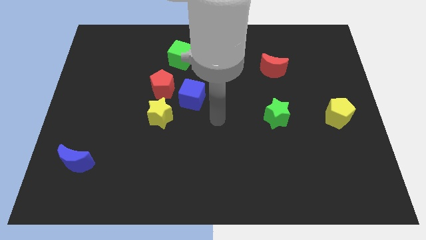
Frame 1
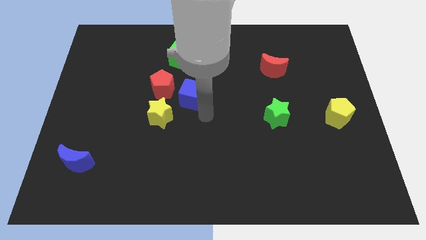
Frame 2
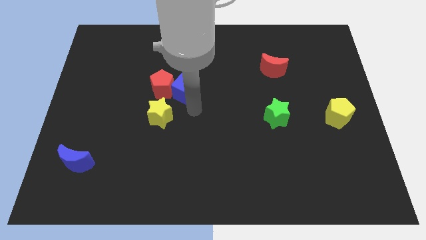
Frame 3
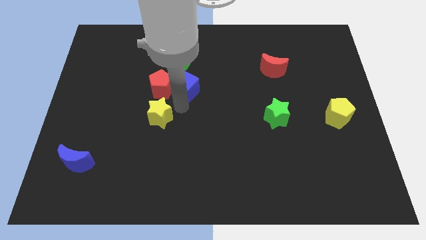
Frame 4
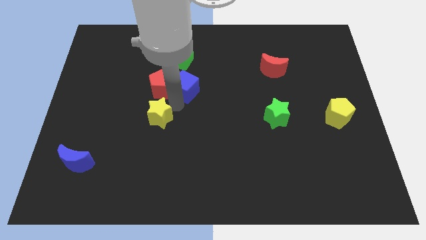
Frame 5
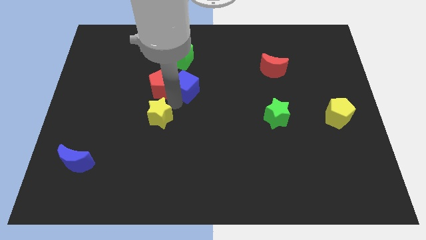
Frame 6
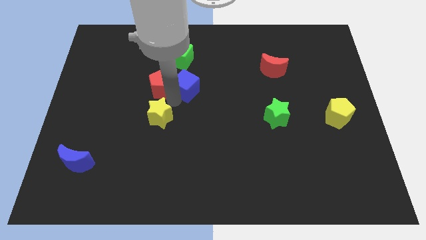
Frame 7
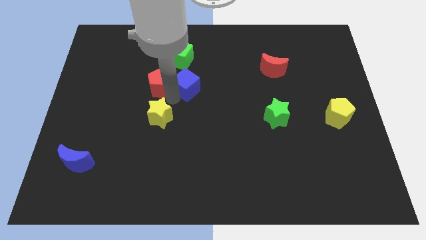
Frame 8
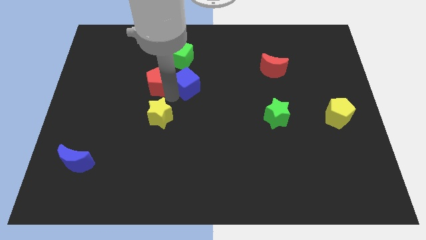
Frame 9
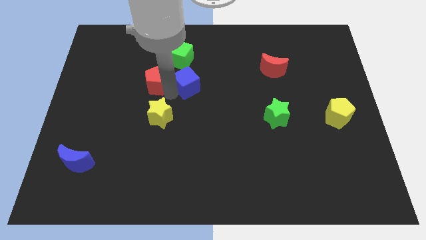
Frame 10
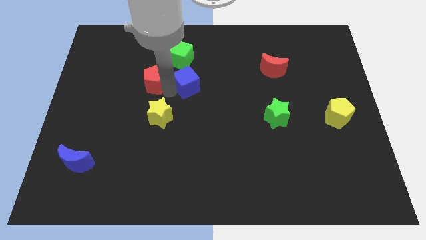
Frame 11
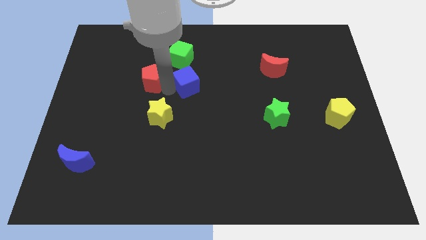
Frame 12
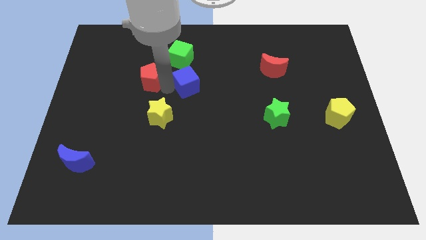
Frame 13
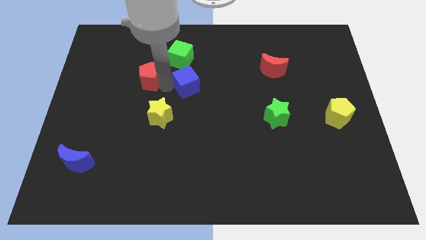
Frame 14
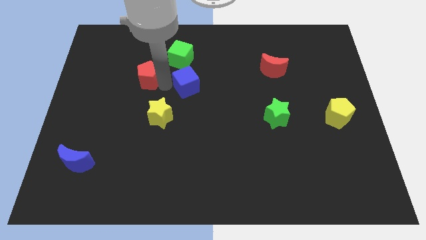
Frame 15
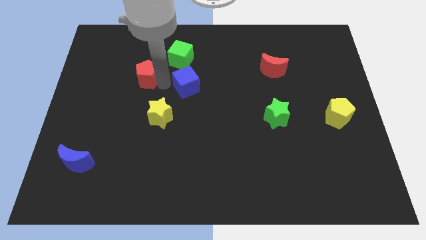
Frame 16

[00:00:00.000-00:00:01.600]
pull the red pentagon apart from the blue cube and yellow star

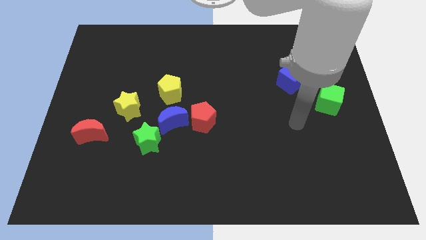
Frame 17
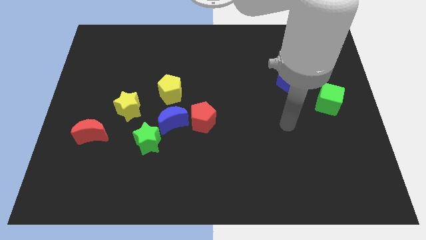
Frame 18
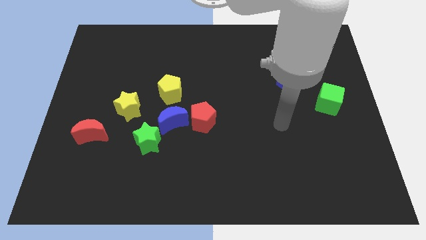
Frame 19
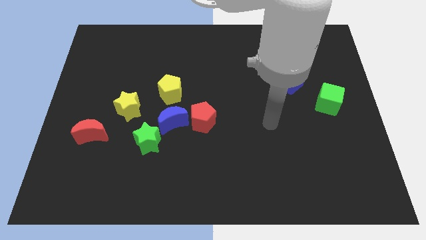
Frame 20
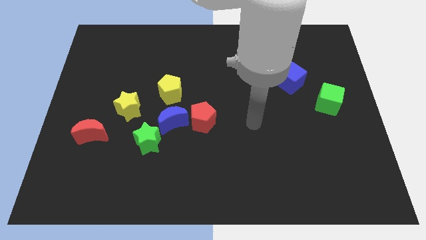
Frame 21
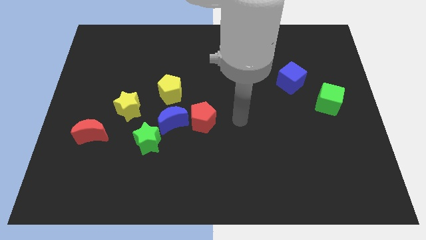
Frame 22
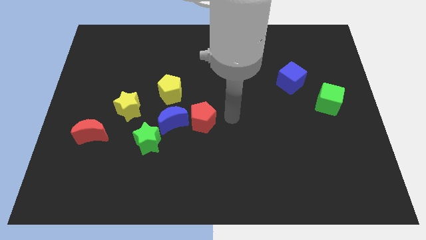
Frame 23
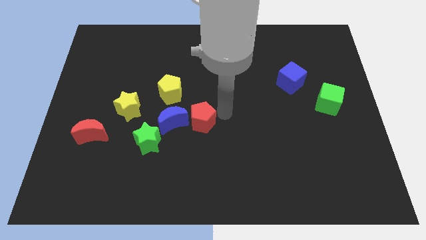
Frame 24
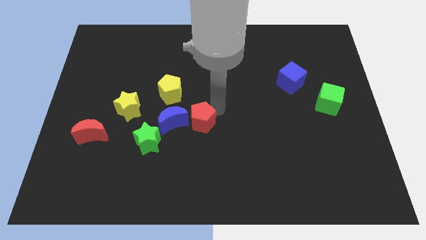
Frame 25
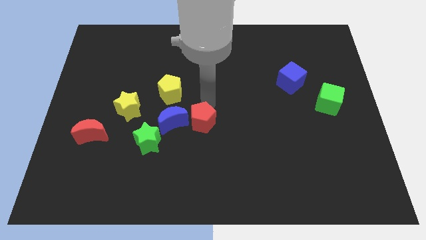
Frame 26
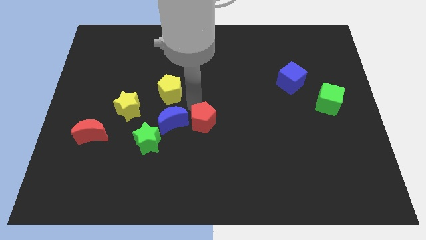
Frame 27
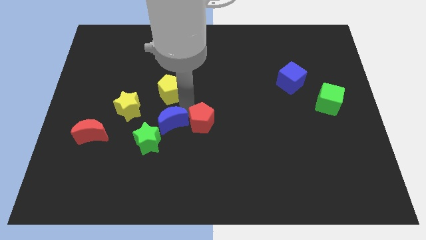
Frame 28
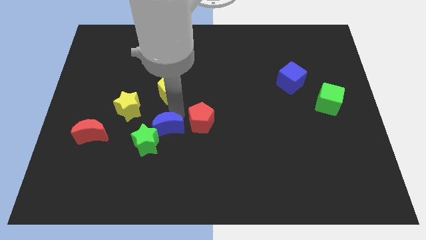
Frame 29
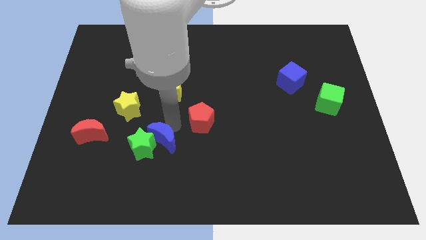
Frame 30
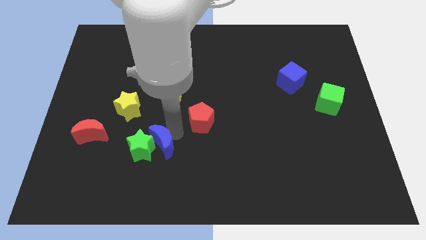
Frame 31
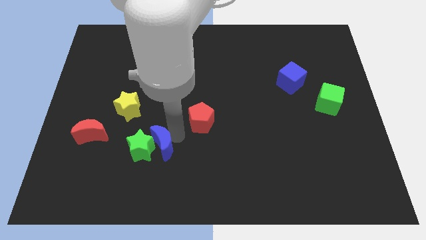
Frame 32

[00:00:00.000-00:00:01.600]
separate the red pentagon from the blue moon

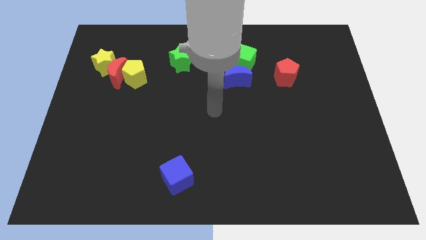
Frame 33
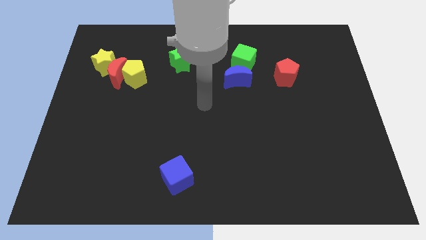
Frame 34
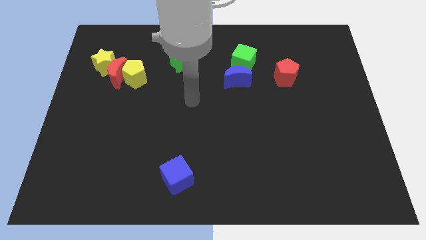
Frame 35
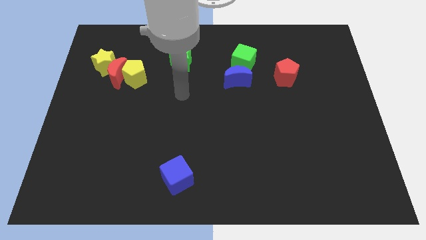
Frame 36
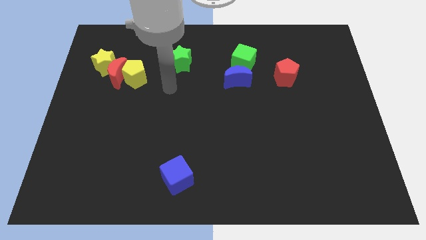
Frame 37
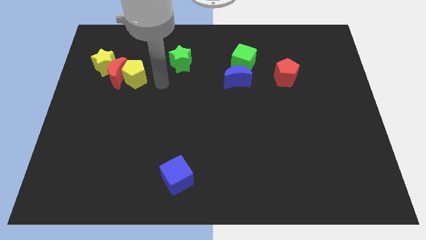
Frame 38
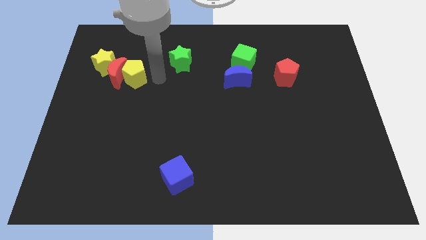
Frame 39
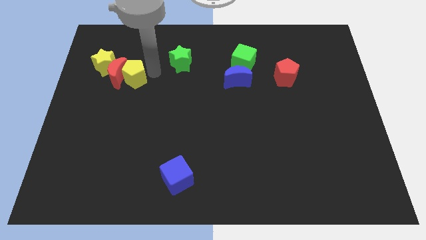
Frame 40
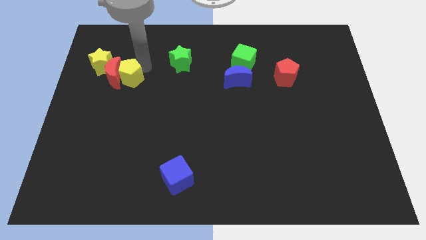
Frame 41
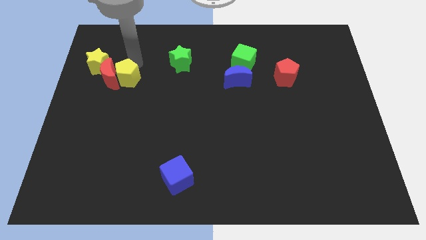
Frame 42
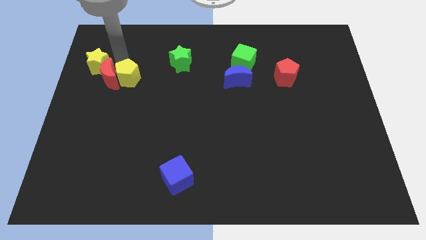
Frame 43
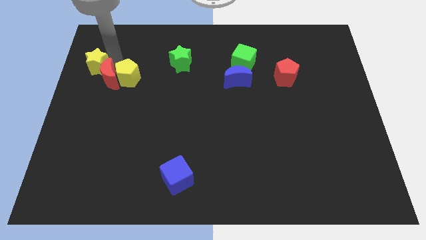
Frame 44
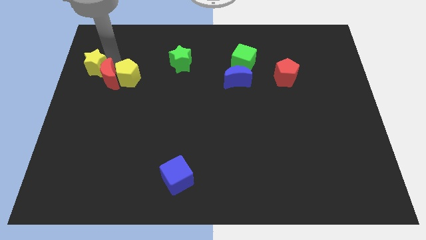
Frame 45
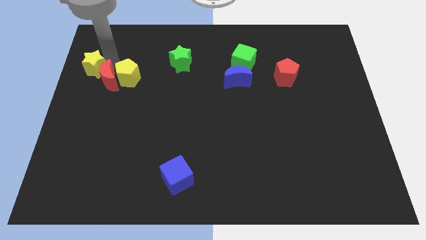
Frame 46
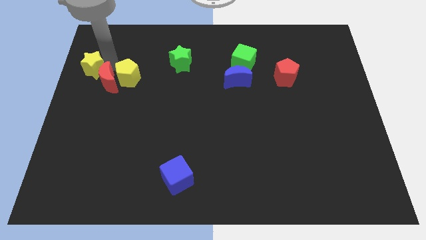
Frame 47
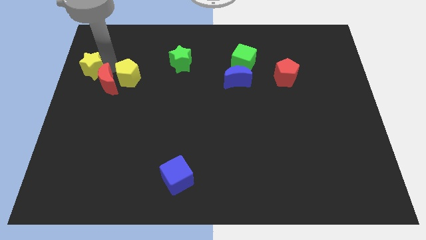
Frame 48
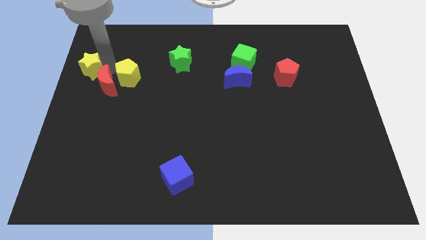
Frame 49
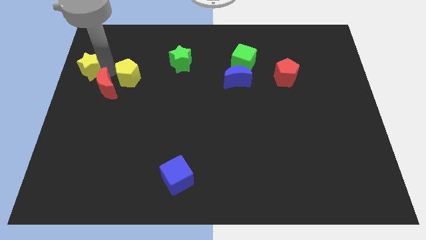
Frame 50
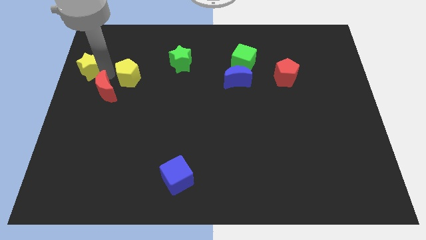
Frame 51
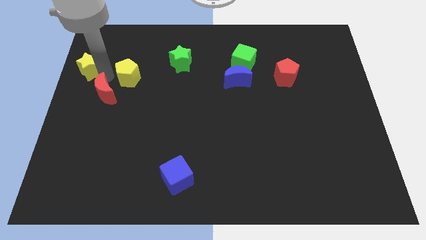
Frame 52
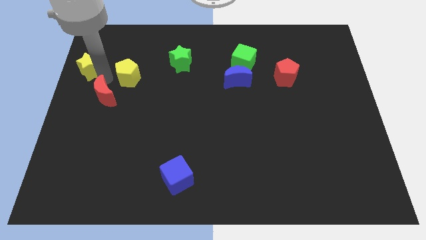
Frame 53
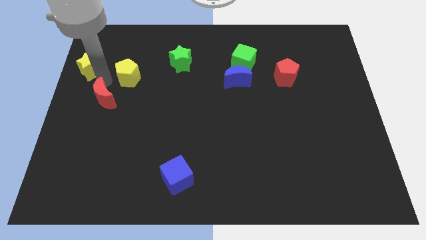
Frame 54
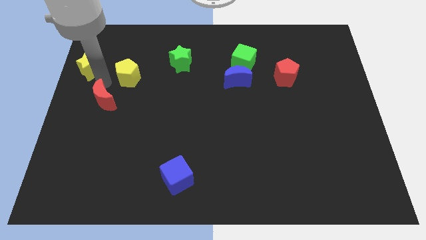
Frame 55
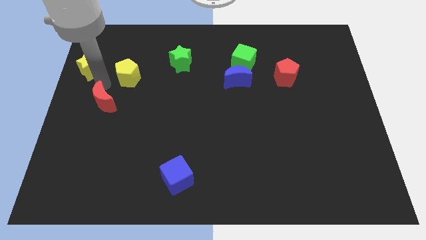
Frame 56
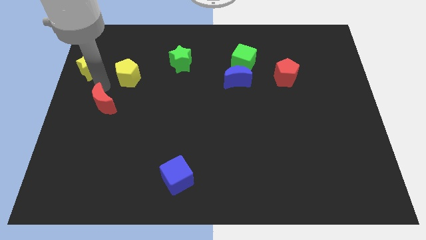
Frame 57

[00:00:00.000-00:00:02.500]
pull the red moon apart from the yellow pentagon and yellow star

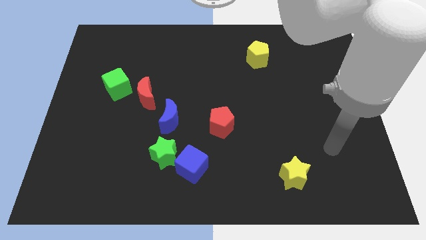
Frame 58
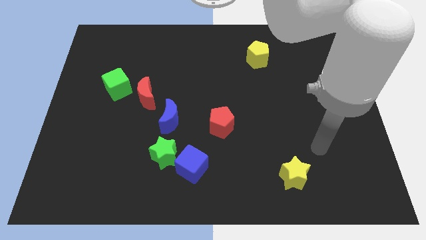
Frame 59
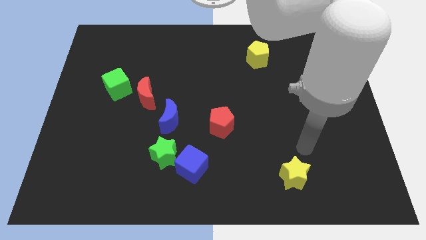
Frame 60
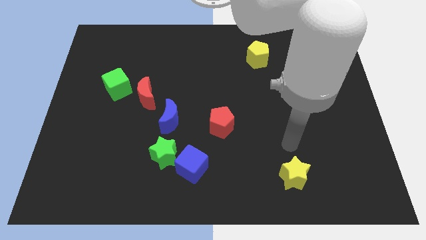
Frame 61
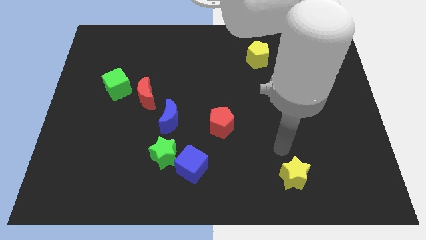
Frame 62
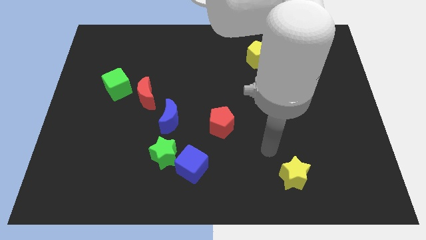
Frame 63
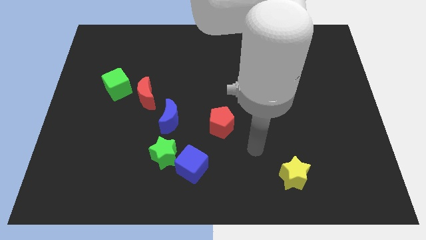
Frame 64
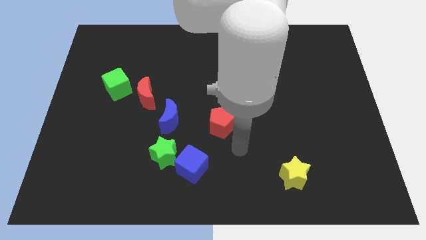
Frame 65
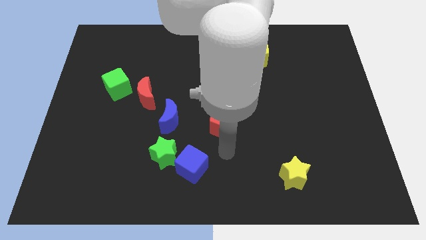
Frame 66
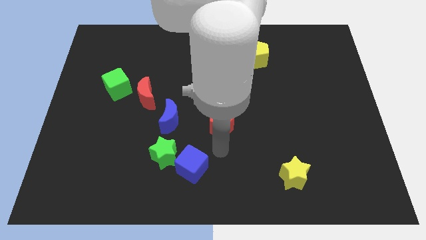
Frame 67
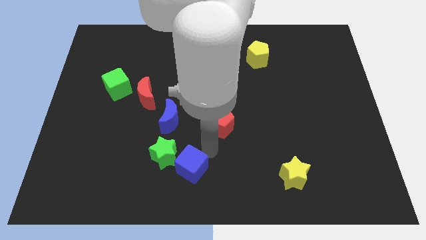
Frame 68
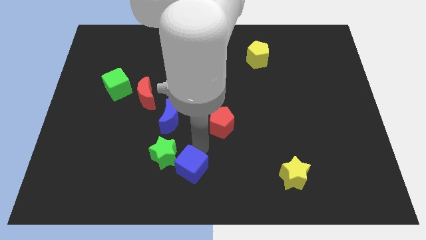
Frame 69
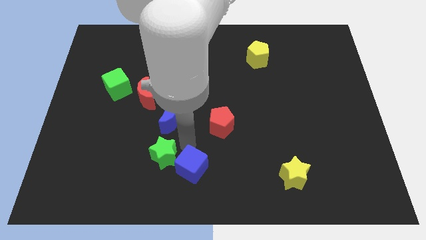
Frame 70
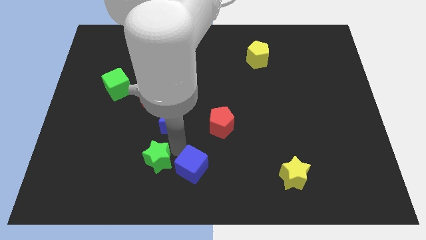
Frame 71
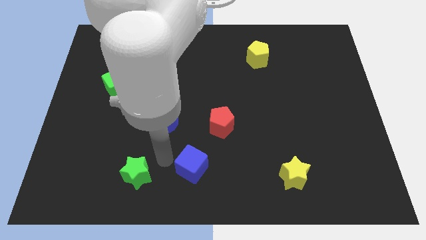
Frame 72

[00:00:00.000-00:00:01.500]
move the blue cube away from the green star

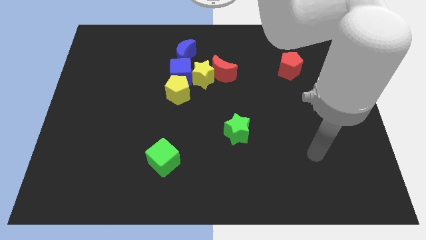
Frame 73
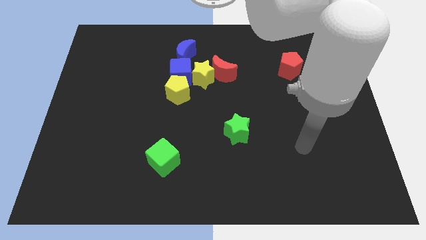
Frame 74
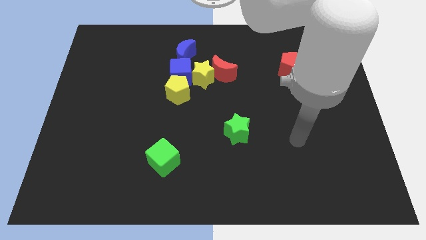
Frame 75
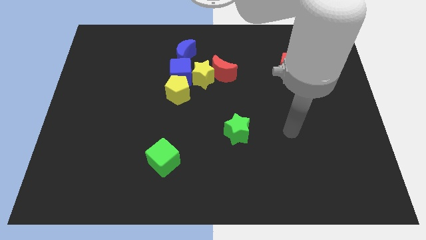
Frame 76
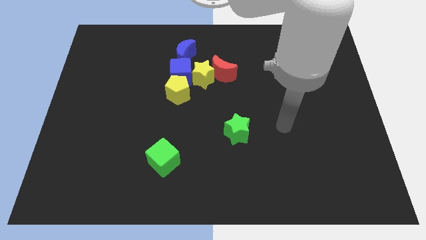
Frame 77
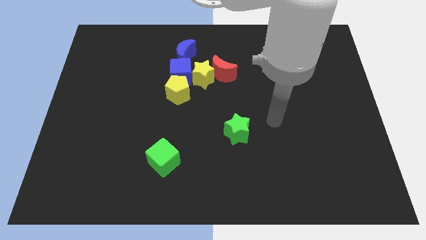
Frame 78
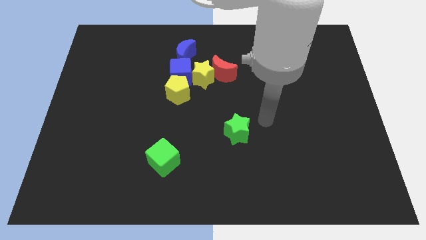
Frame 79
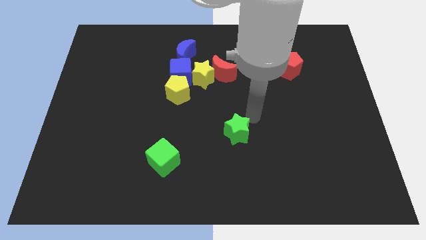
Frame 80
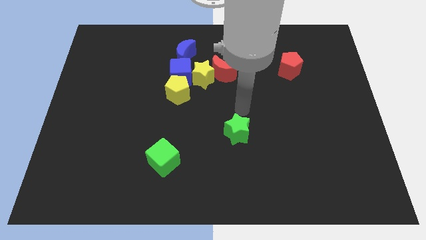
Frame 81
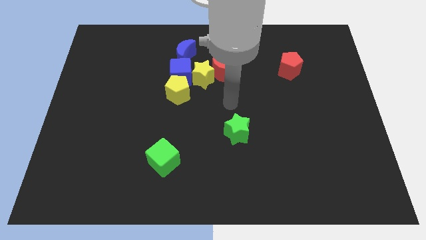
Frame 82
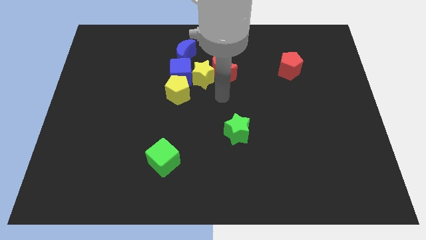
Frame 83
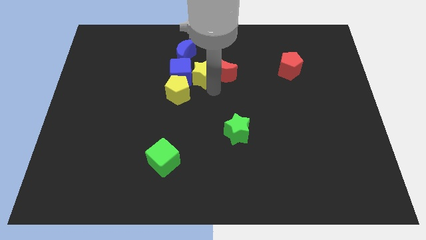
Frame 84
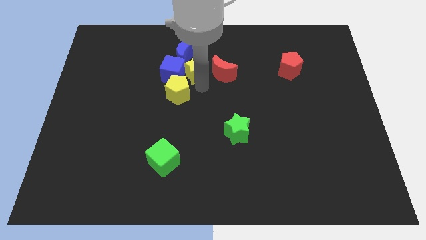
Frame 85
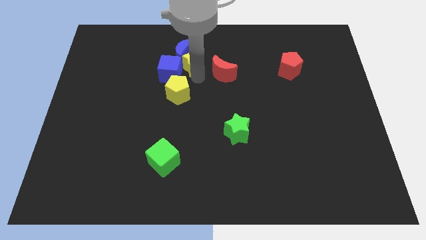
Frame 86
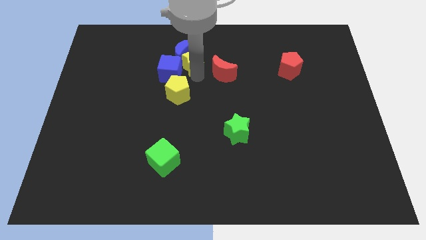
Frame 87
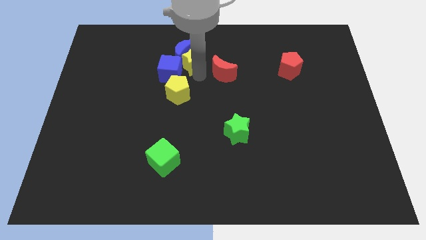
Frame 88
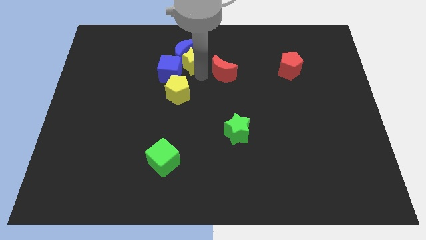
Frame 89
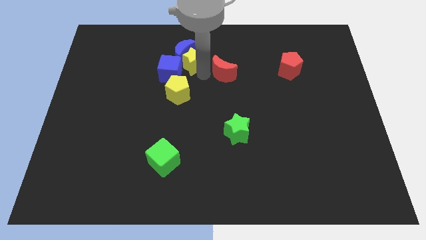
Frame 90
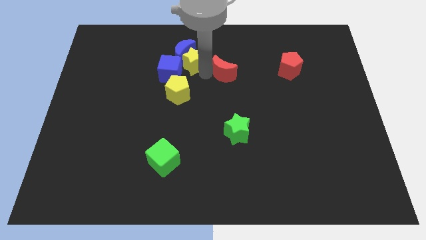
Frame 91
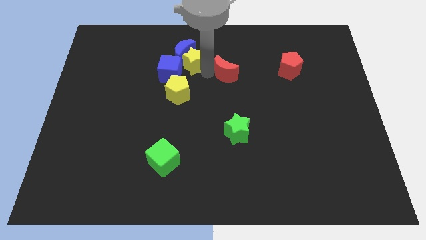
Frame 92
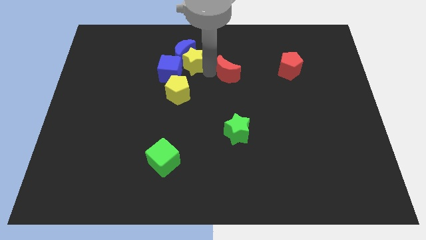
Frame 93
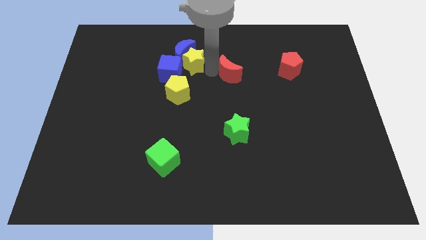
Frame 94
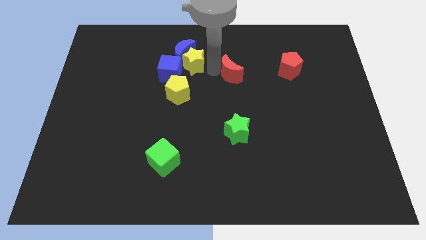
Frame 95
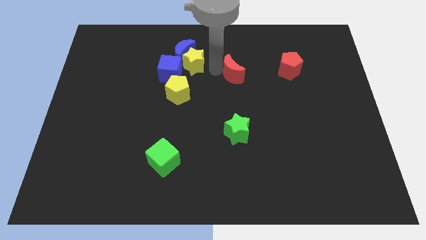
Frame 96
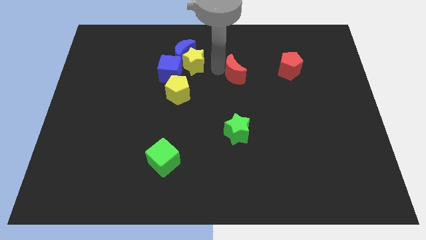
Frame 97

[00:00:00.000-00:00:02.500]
pull the red moon apart from the yellow star
